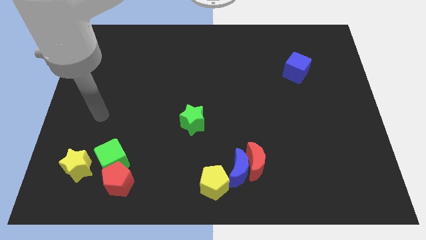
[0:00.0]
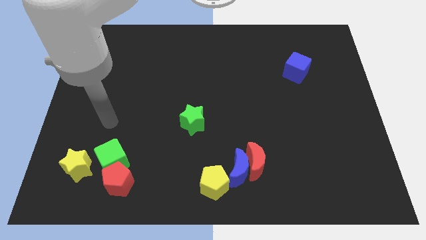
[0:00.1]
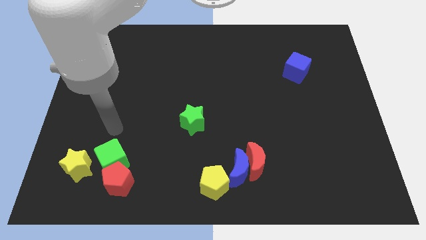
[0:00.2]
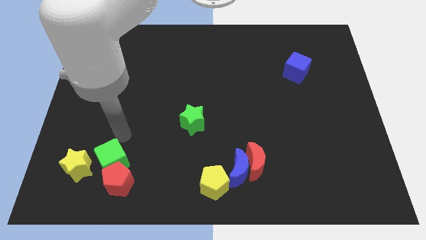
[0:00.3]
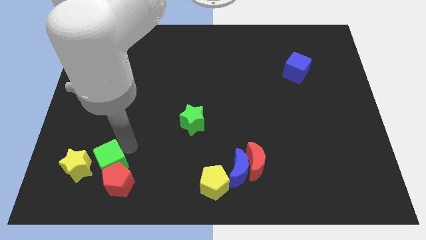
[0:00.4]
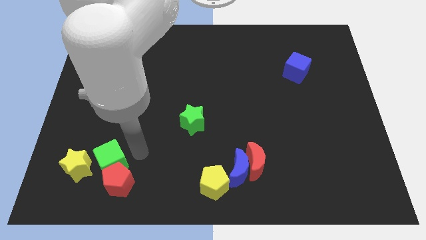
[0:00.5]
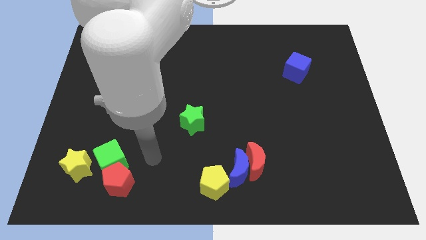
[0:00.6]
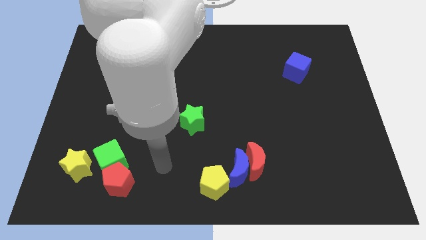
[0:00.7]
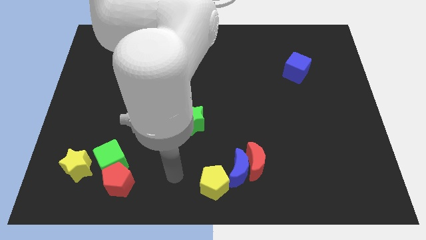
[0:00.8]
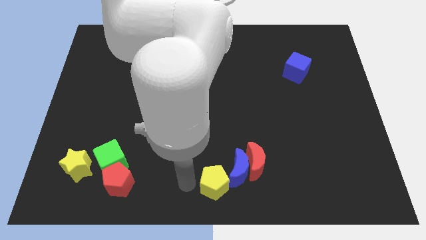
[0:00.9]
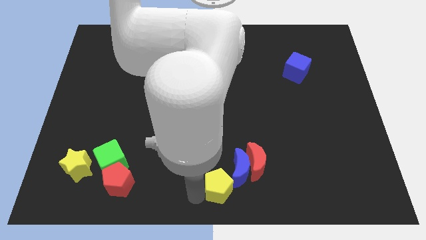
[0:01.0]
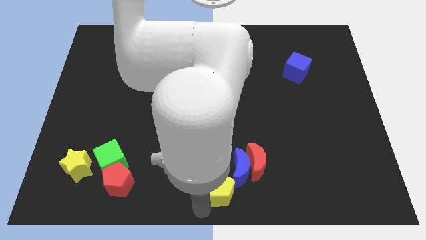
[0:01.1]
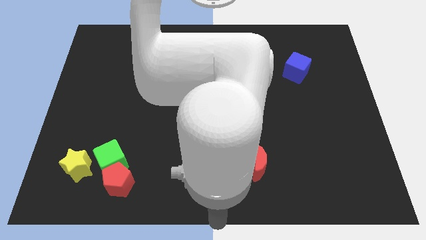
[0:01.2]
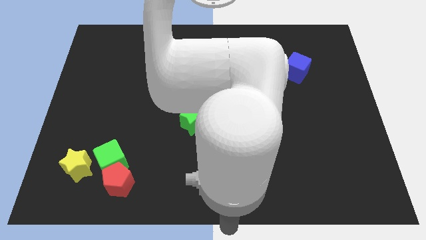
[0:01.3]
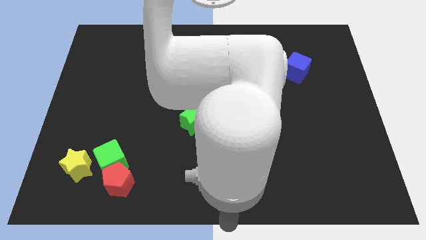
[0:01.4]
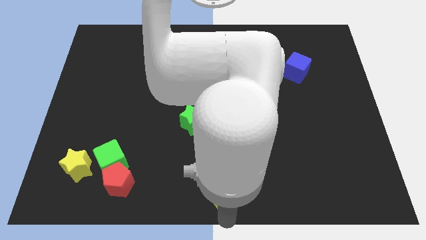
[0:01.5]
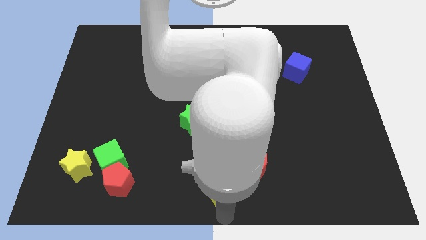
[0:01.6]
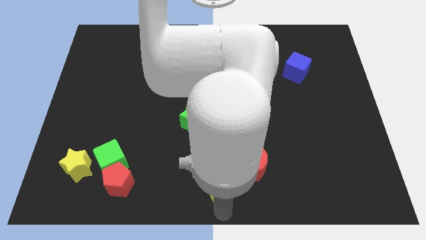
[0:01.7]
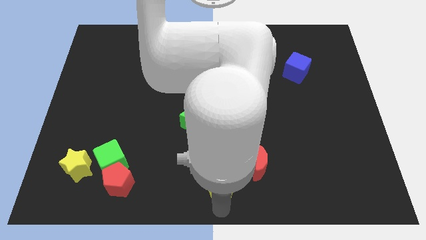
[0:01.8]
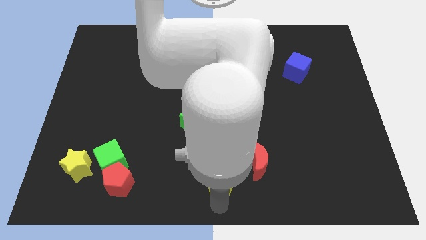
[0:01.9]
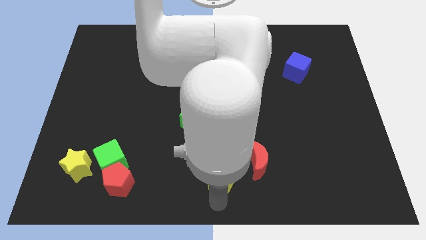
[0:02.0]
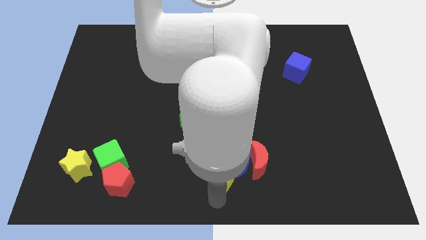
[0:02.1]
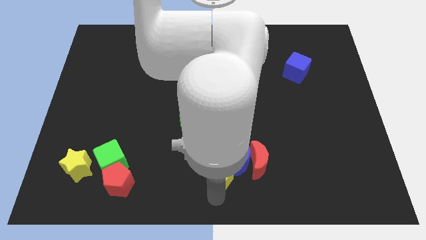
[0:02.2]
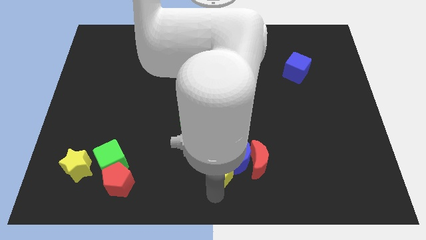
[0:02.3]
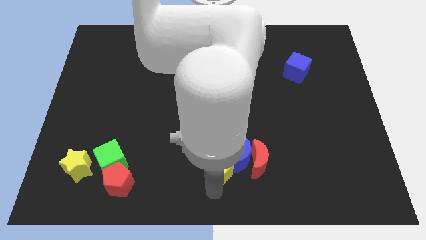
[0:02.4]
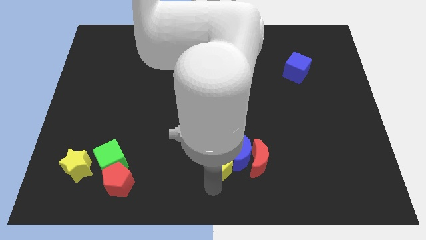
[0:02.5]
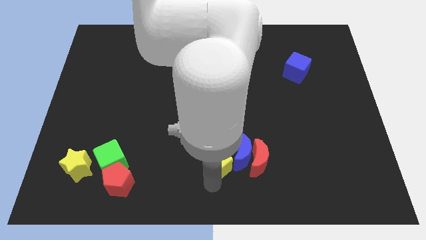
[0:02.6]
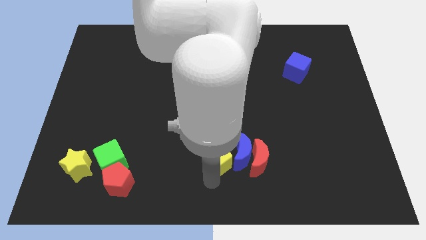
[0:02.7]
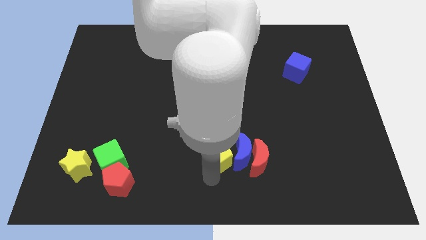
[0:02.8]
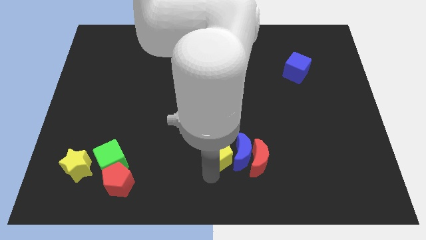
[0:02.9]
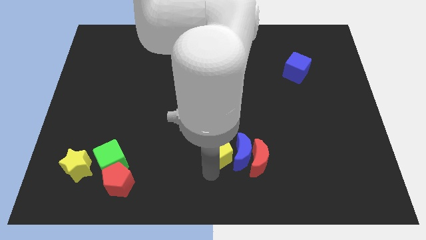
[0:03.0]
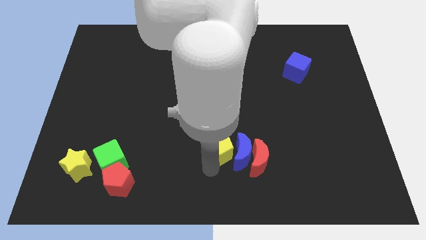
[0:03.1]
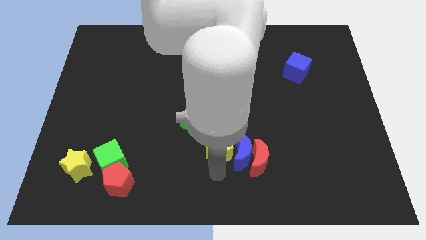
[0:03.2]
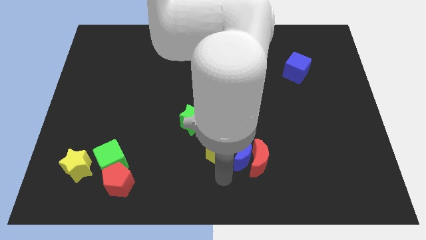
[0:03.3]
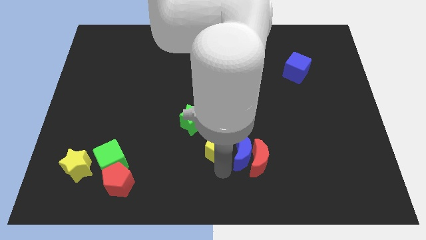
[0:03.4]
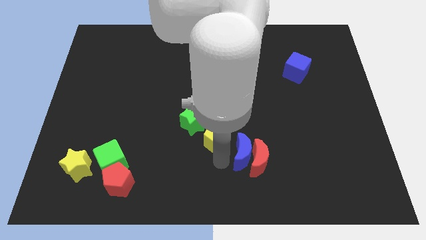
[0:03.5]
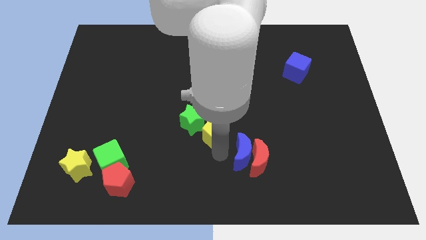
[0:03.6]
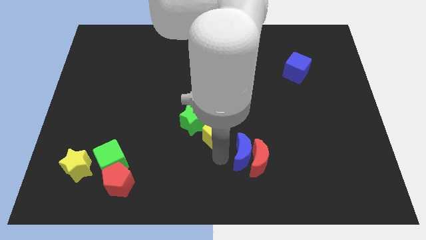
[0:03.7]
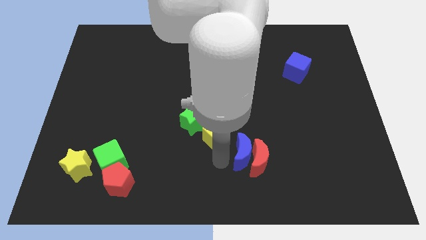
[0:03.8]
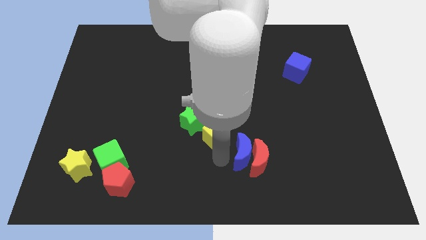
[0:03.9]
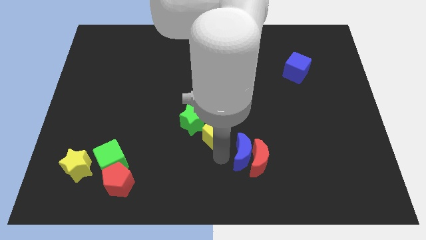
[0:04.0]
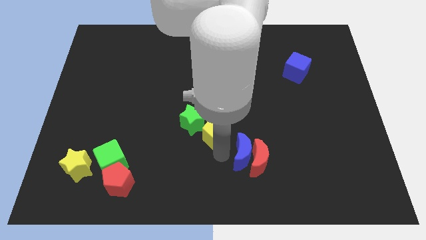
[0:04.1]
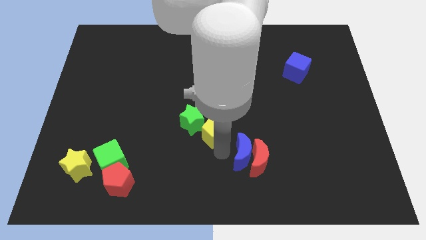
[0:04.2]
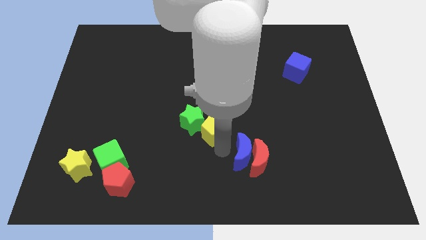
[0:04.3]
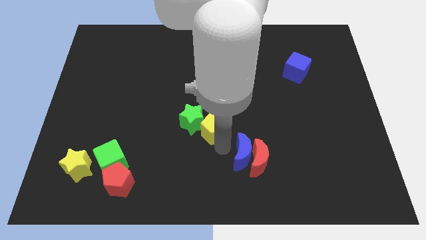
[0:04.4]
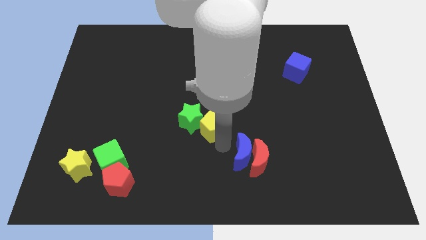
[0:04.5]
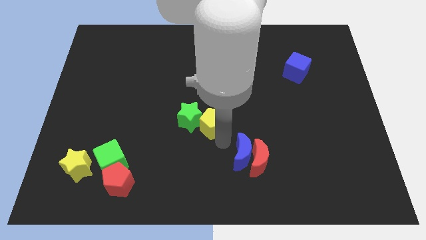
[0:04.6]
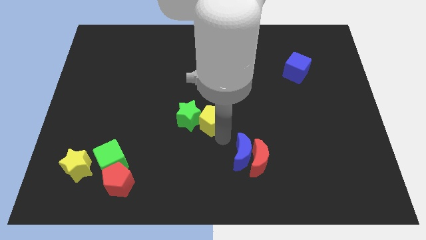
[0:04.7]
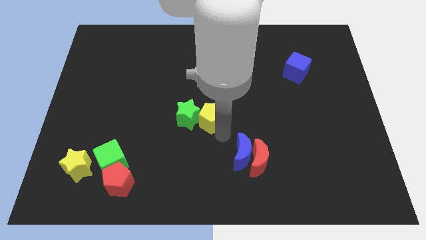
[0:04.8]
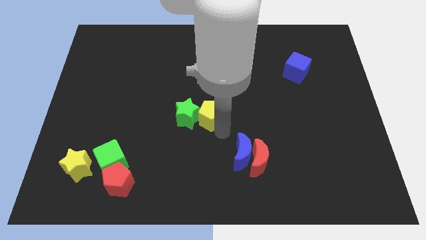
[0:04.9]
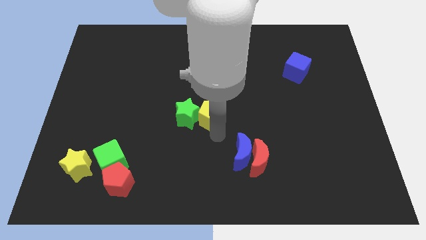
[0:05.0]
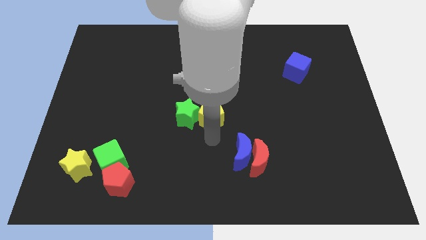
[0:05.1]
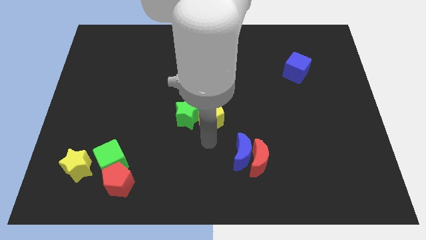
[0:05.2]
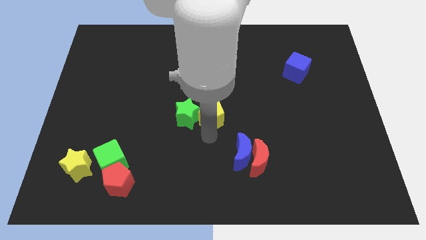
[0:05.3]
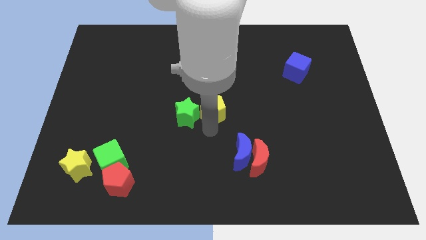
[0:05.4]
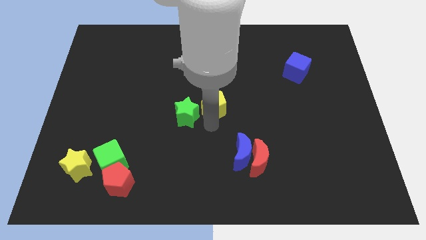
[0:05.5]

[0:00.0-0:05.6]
move the yellow pentagon up

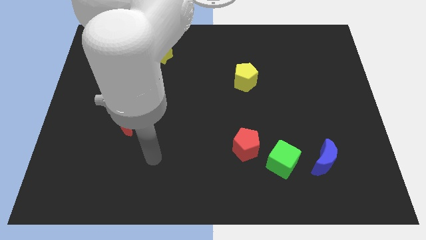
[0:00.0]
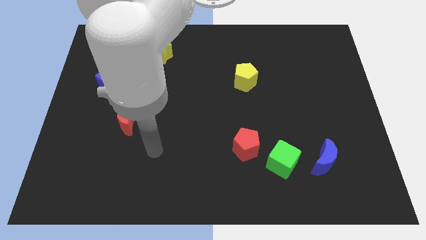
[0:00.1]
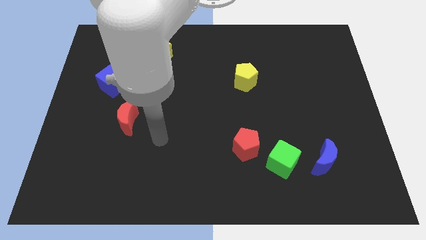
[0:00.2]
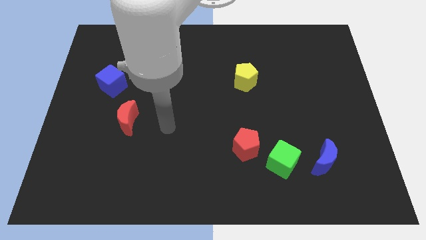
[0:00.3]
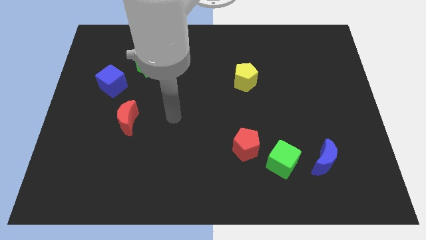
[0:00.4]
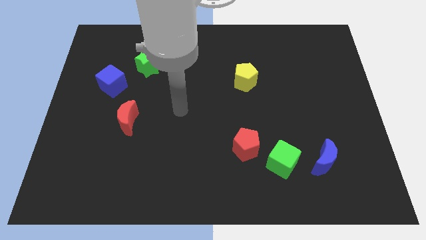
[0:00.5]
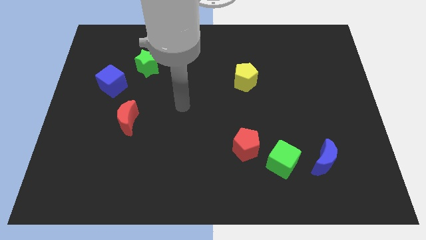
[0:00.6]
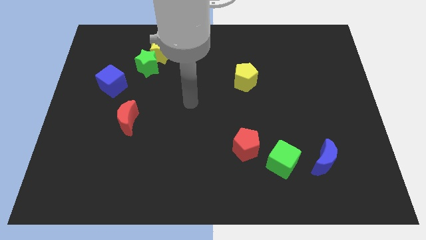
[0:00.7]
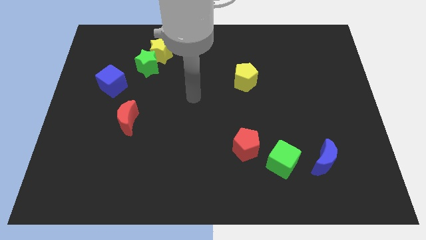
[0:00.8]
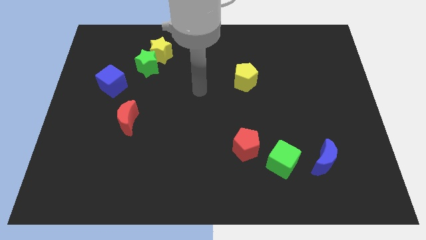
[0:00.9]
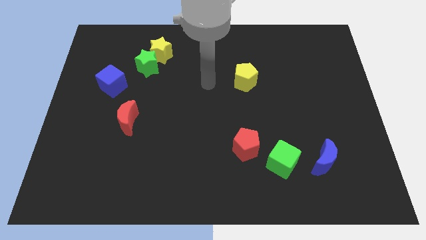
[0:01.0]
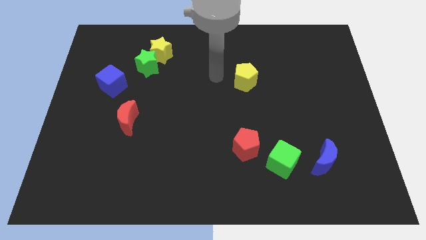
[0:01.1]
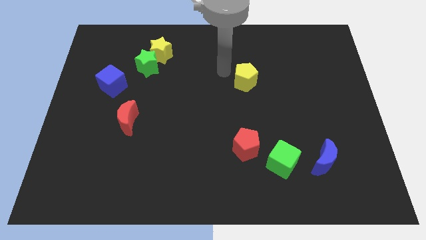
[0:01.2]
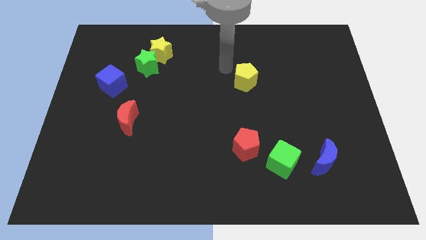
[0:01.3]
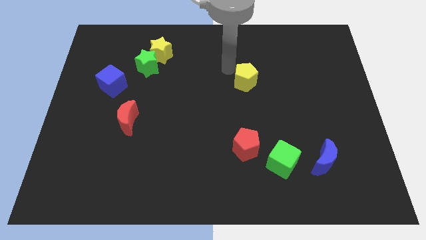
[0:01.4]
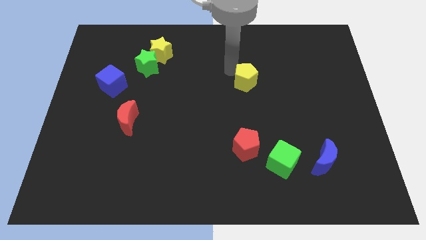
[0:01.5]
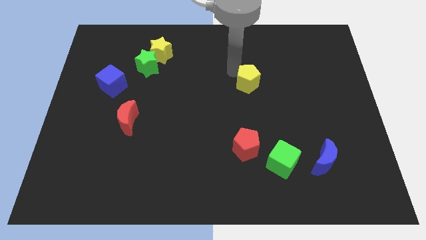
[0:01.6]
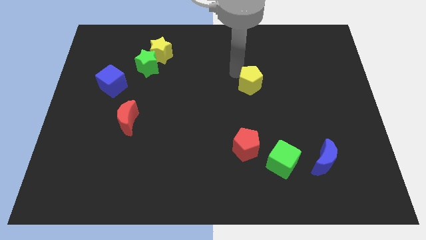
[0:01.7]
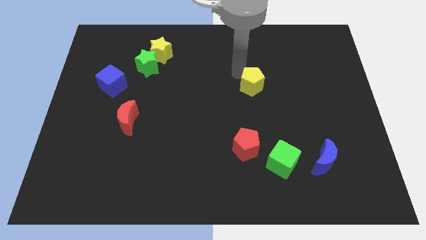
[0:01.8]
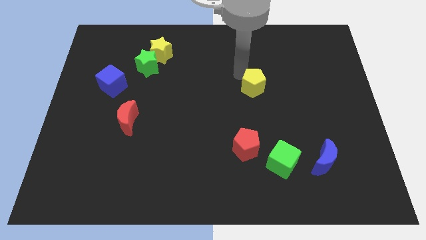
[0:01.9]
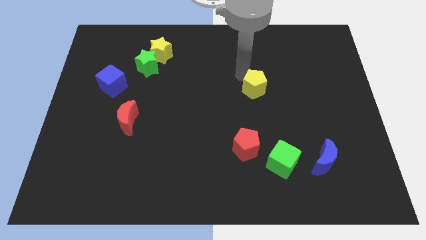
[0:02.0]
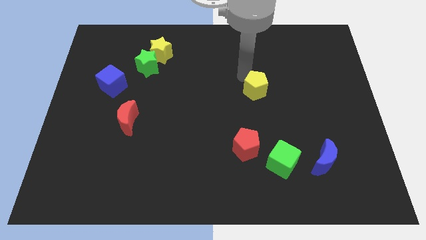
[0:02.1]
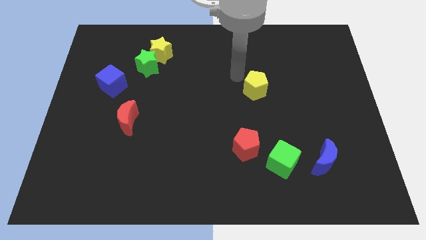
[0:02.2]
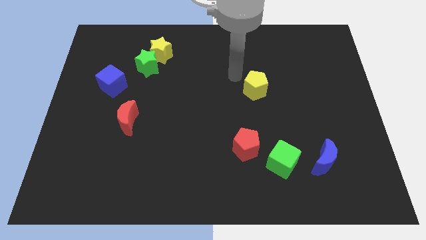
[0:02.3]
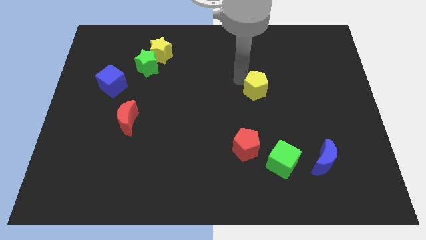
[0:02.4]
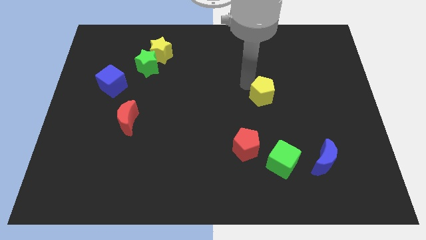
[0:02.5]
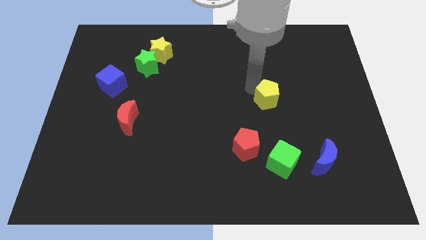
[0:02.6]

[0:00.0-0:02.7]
slightly slide the yellow pentagon downwards and to the right
